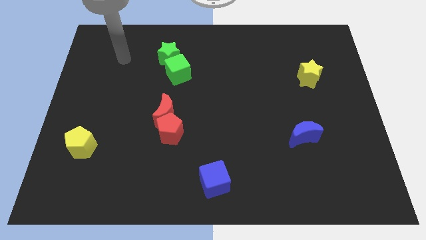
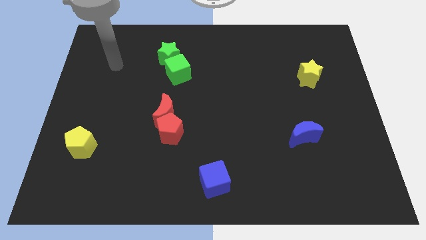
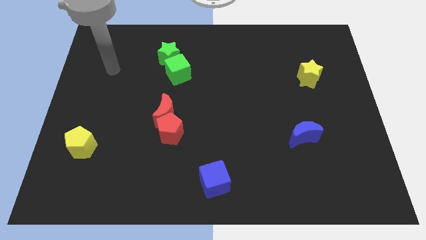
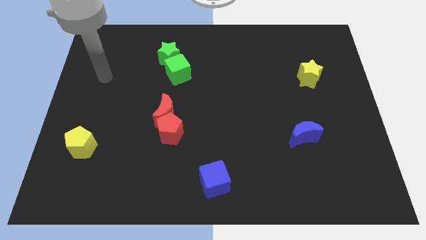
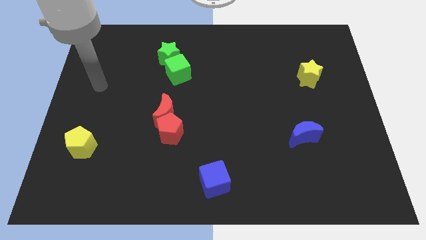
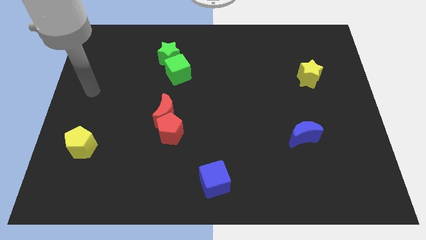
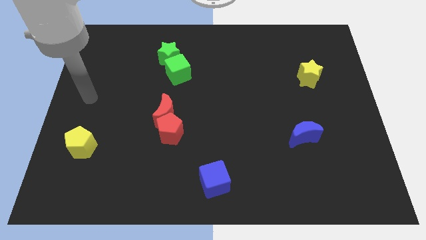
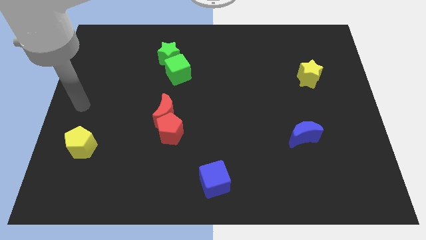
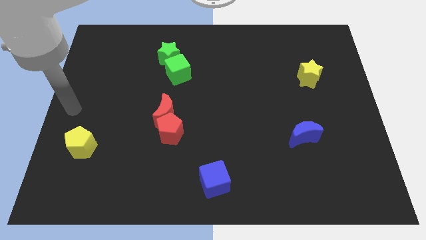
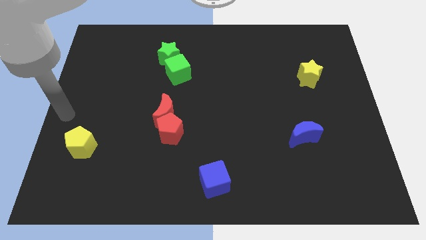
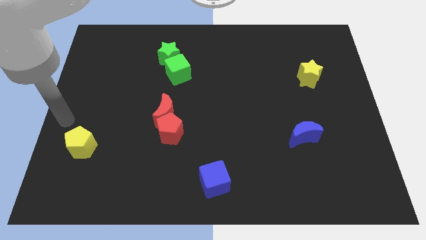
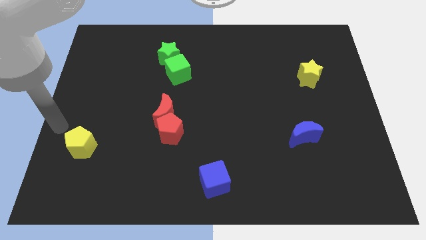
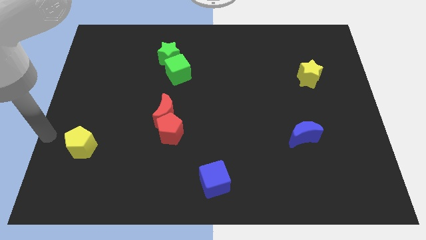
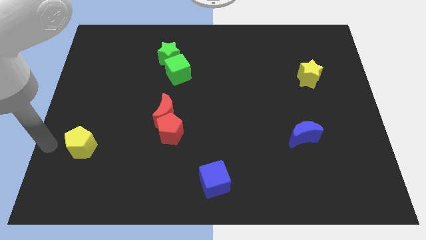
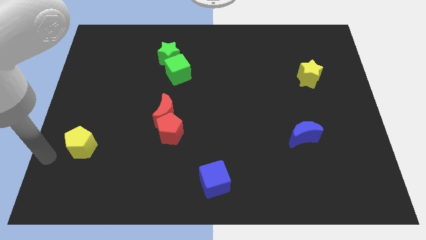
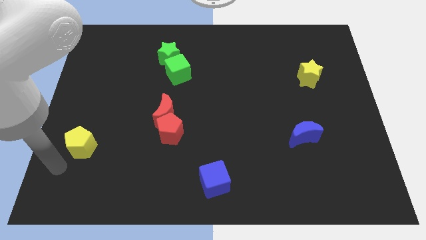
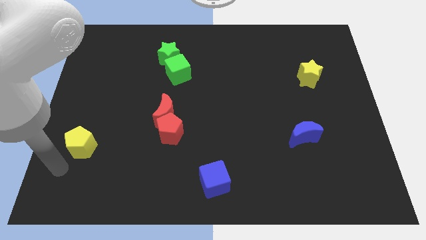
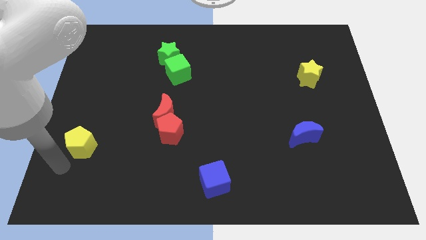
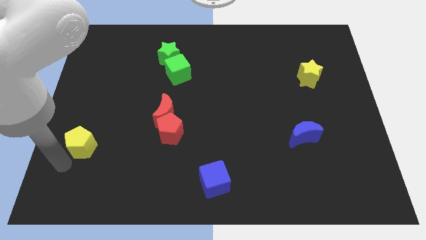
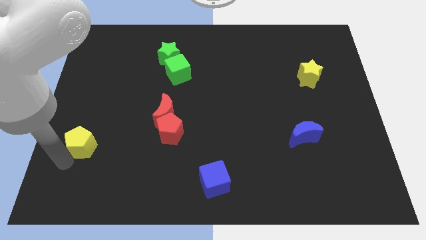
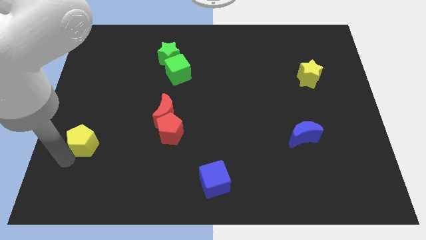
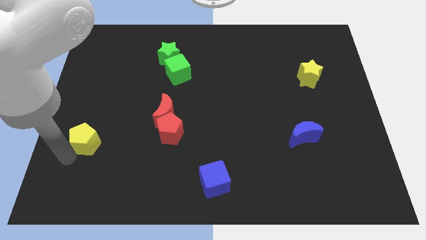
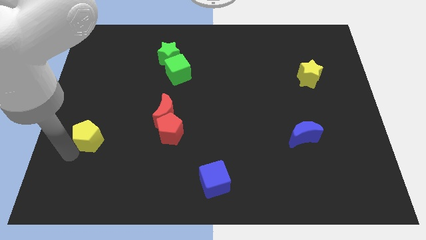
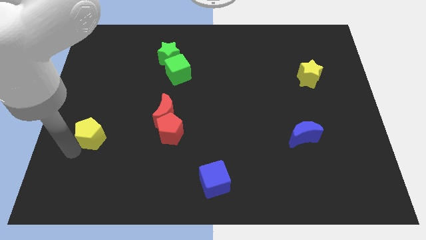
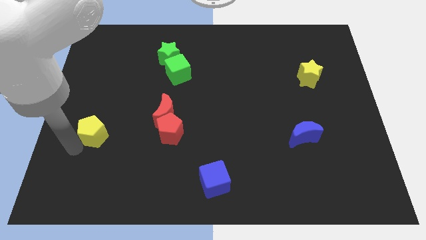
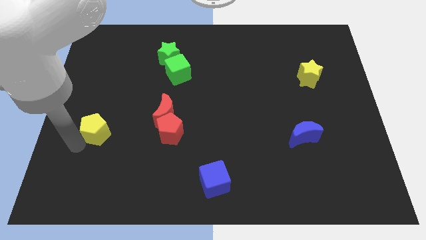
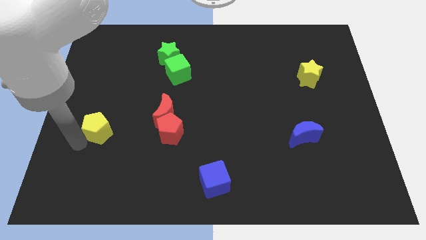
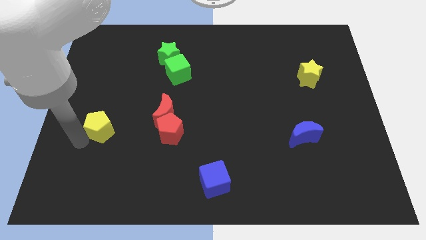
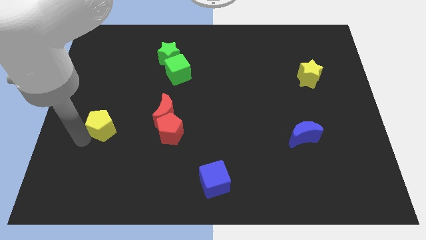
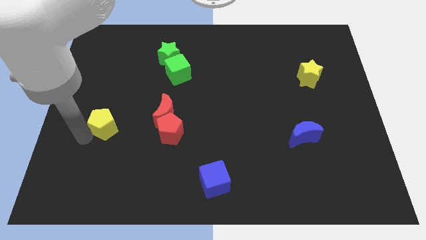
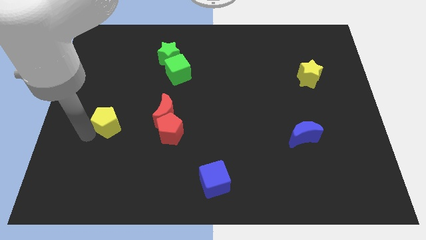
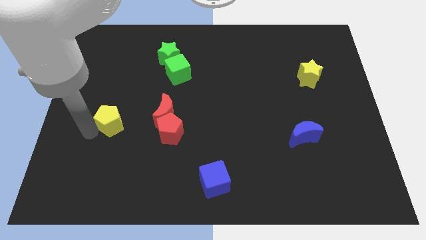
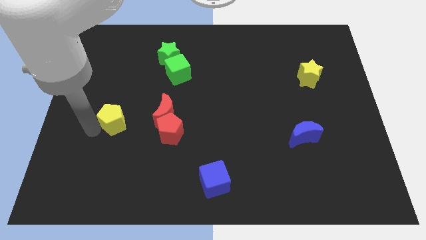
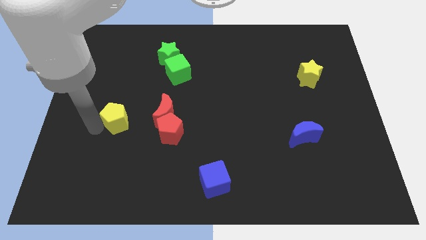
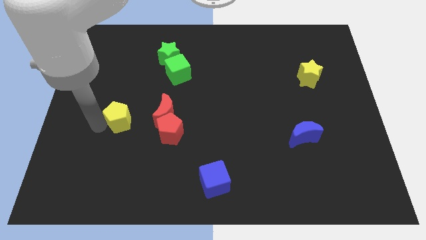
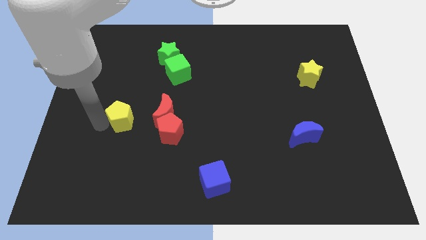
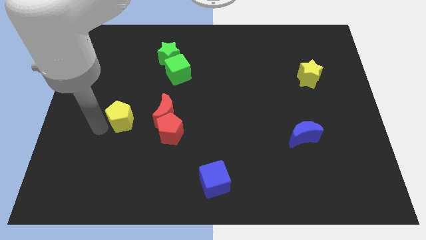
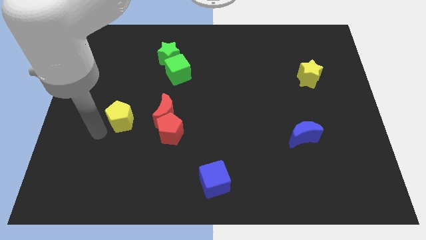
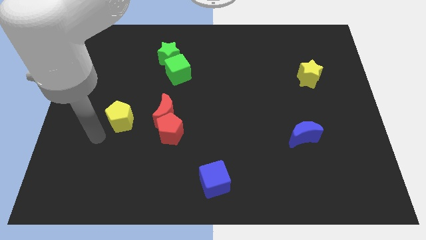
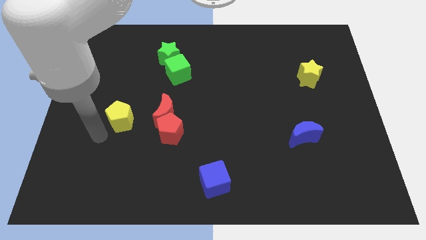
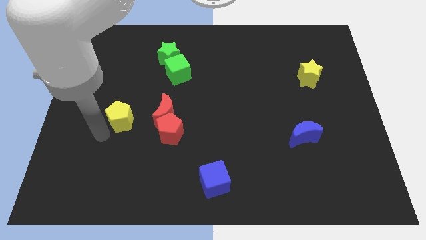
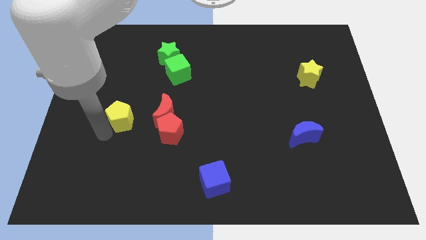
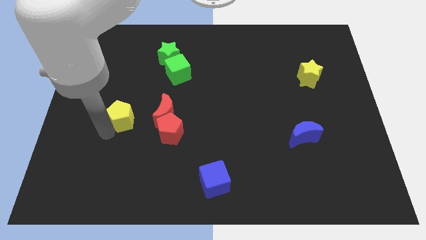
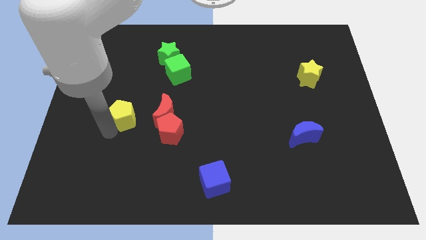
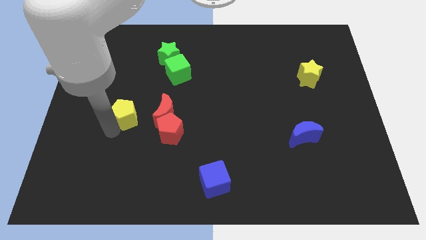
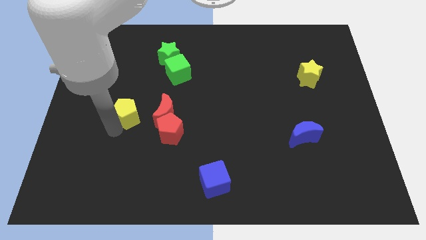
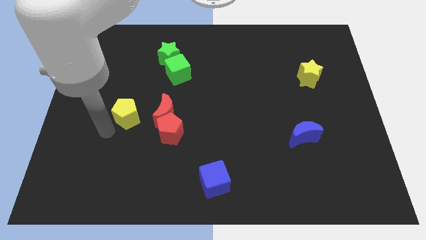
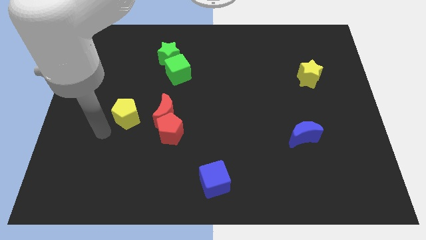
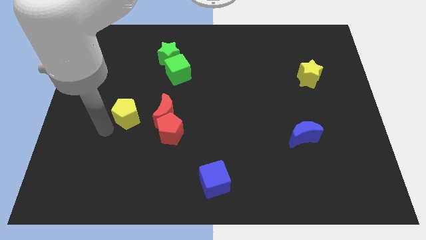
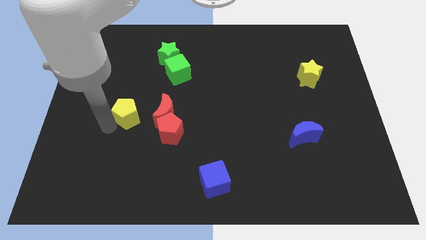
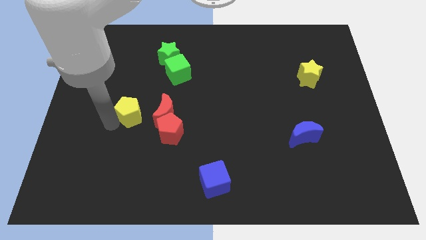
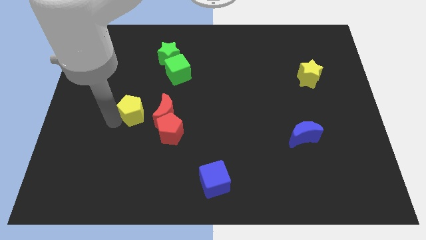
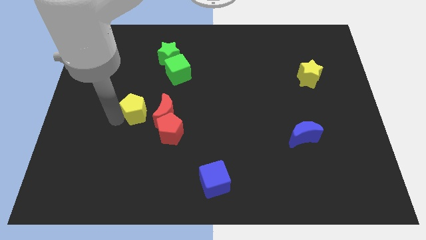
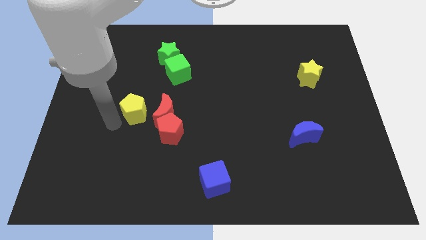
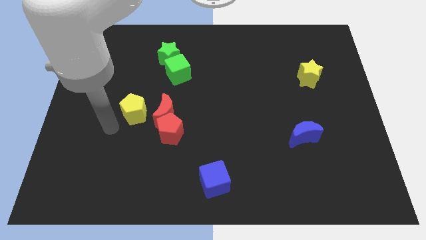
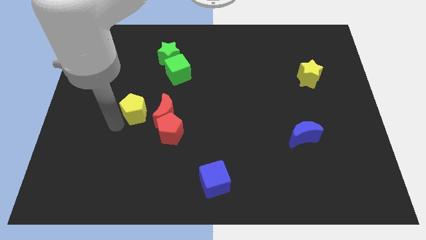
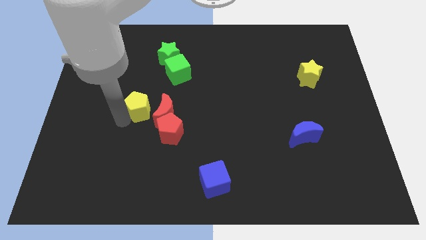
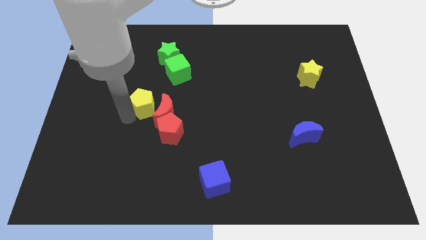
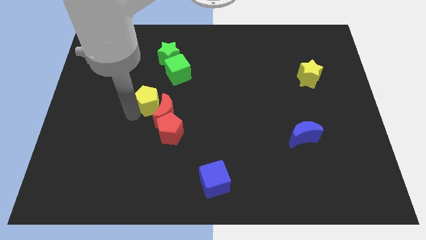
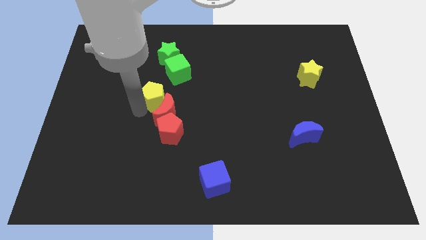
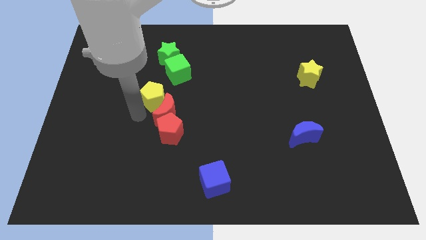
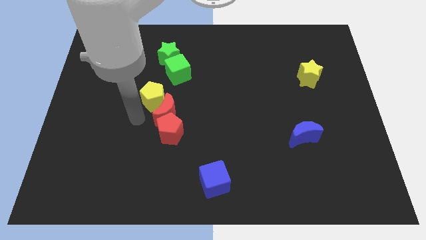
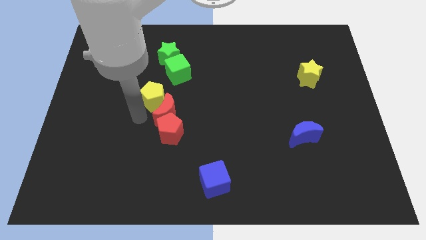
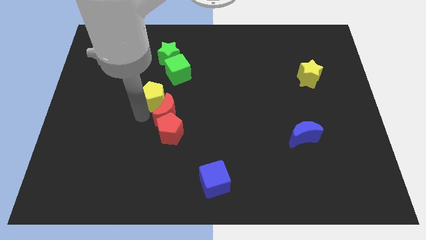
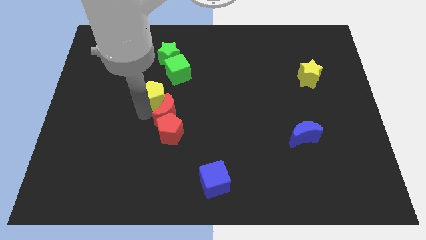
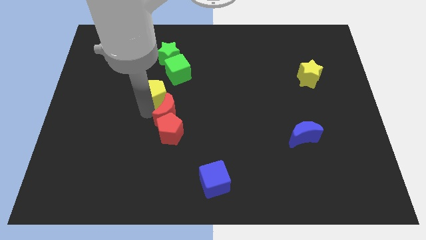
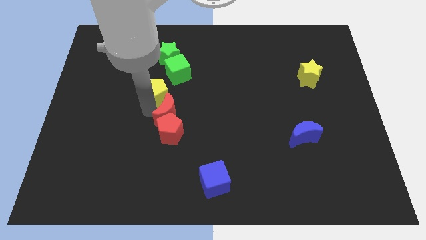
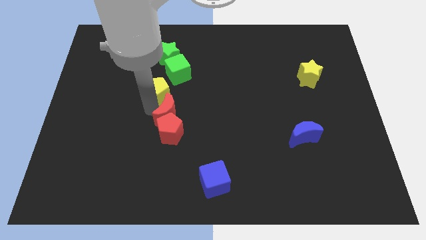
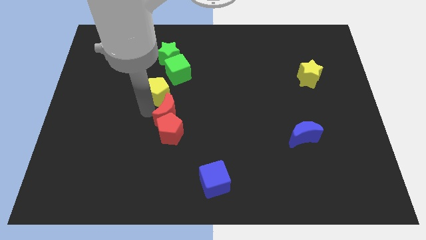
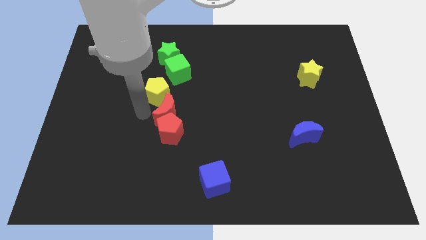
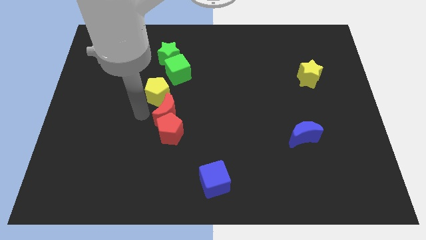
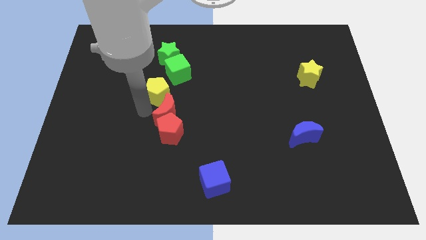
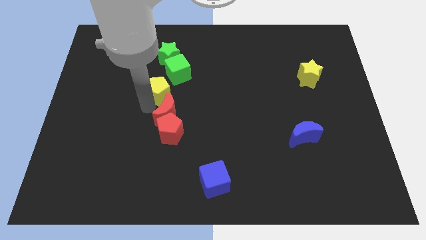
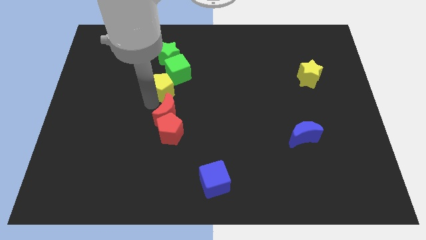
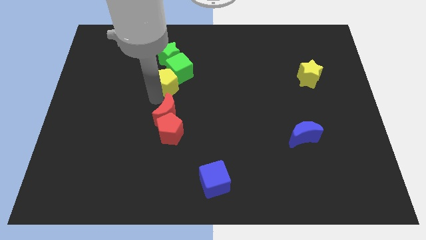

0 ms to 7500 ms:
put the yellow pentagon towards the green cube

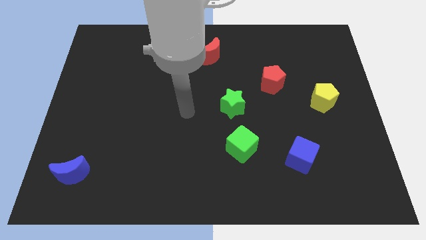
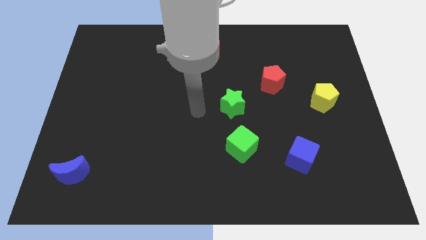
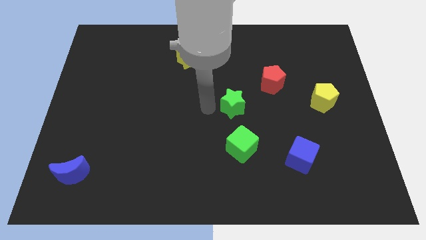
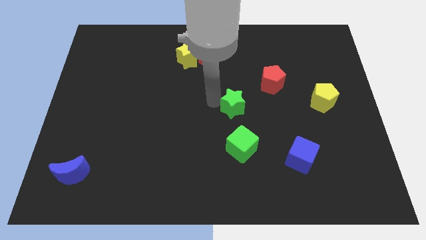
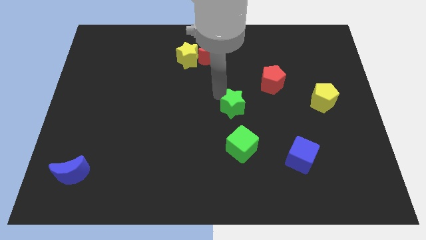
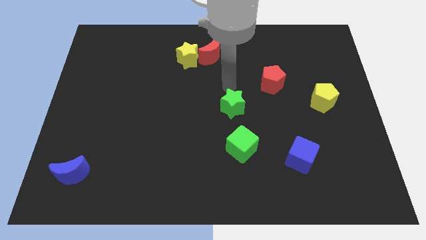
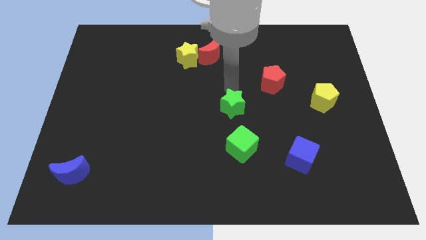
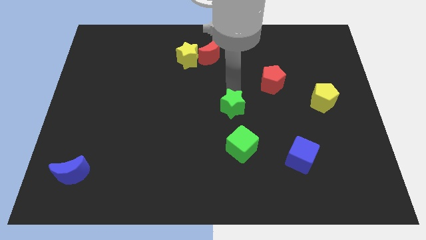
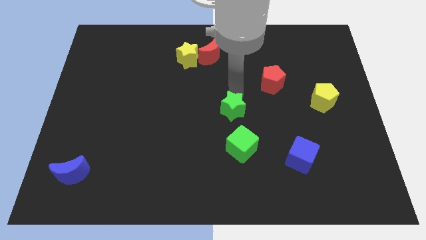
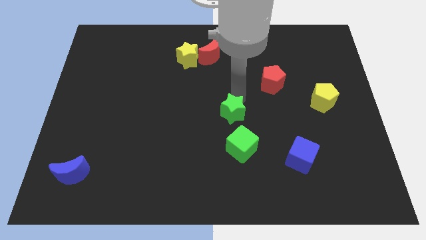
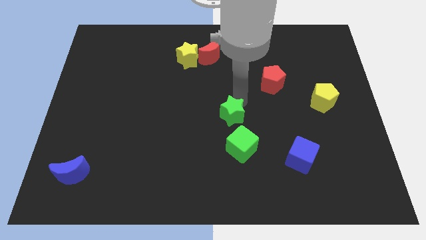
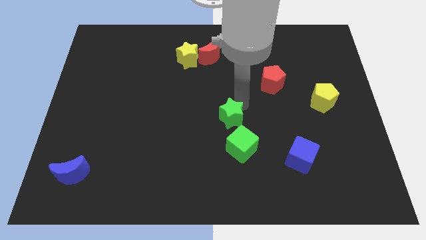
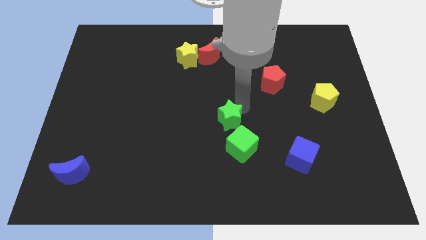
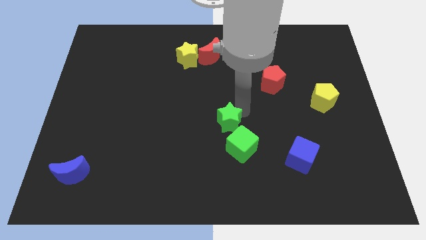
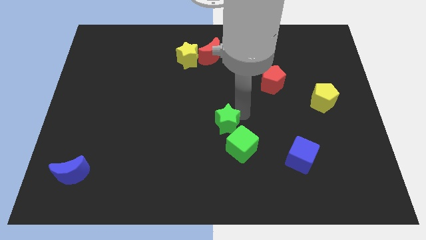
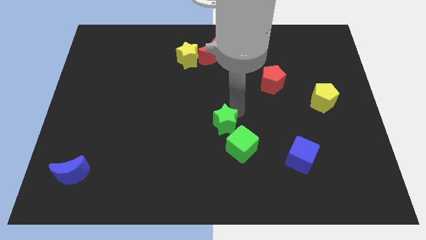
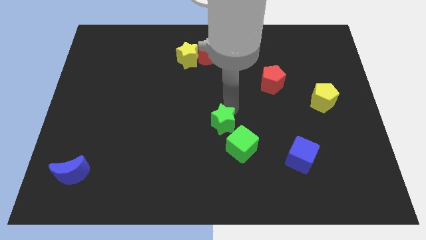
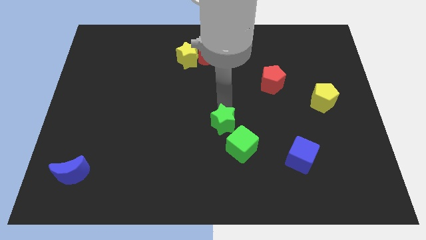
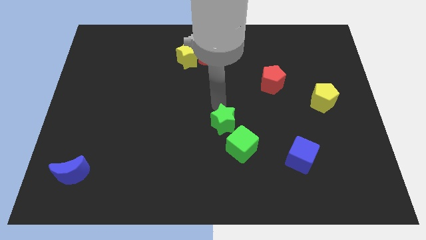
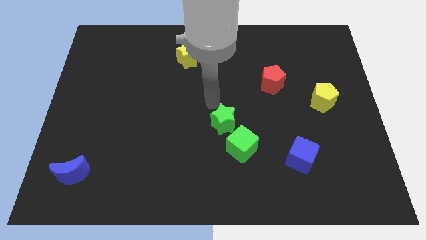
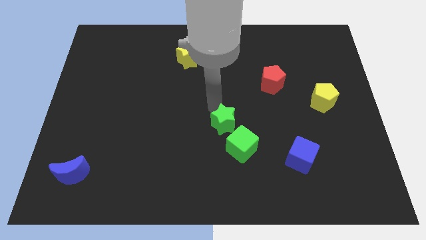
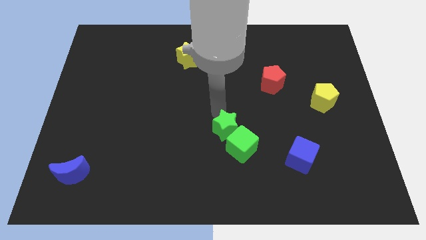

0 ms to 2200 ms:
slide the green star close to the green cube
